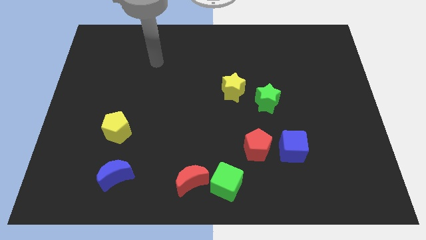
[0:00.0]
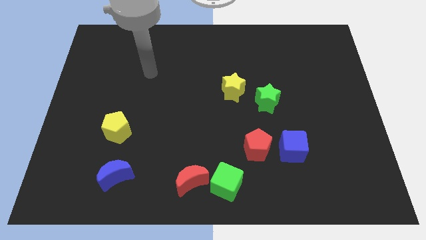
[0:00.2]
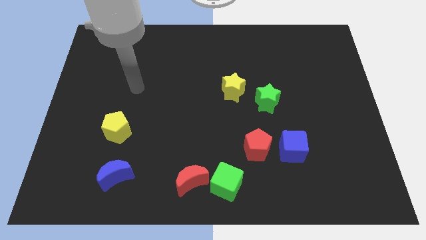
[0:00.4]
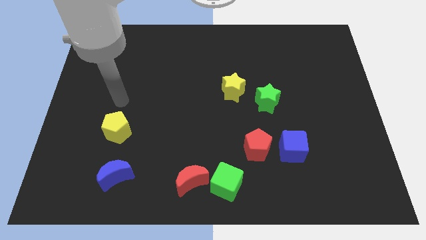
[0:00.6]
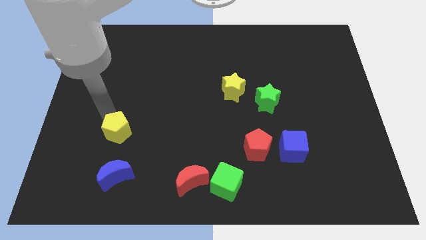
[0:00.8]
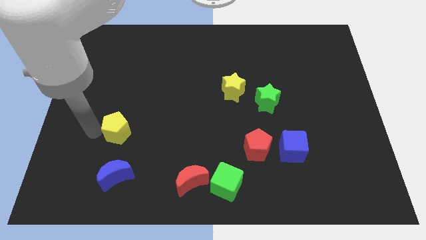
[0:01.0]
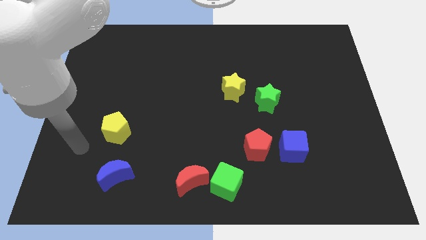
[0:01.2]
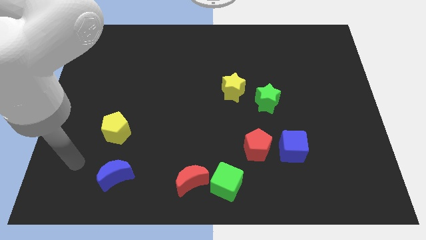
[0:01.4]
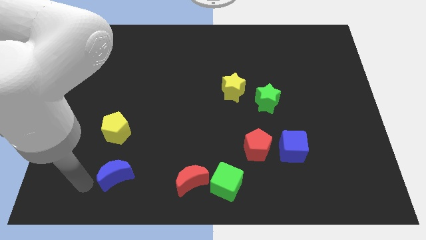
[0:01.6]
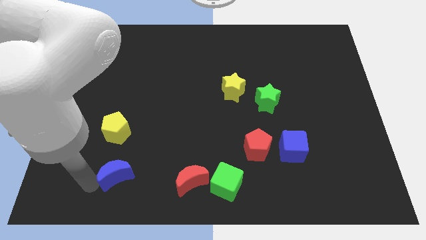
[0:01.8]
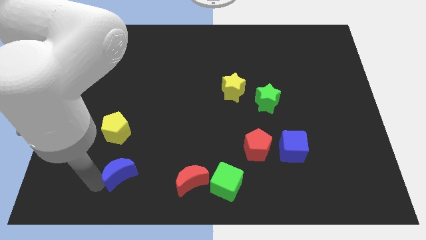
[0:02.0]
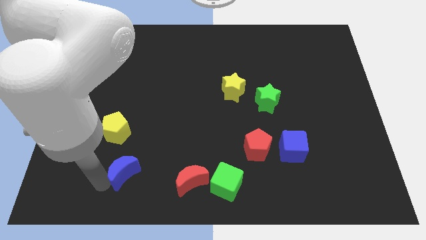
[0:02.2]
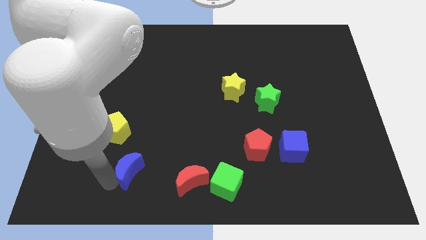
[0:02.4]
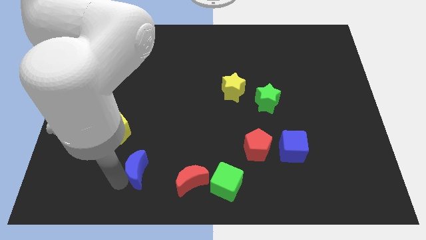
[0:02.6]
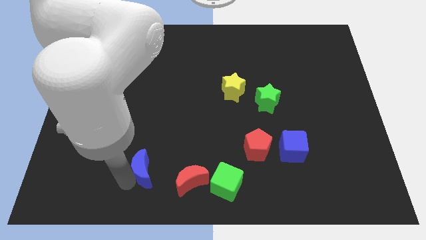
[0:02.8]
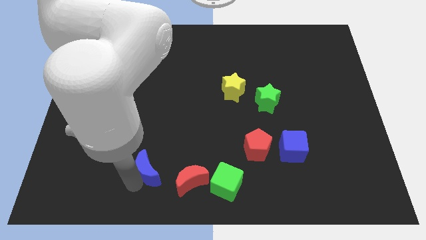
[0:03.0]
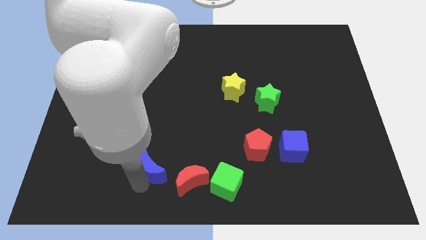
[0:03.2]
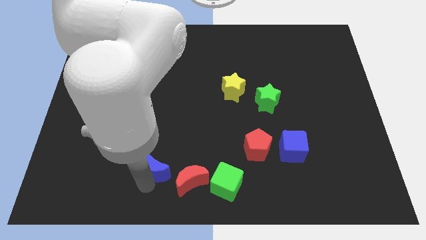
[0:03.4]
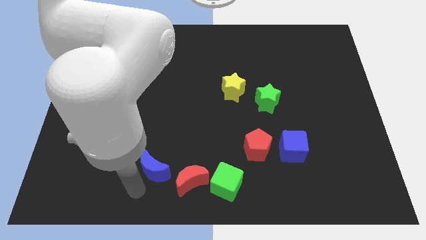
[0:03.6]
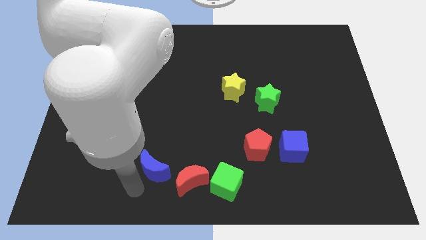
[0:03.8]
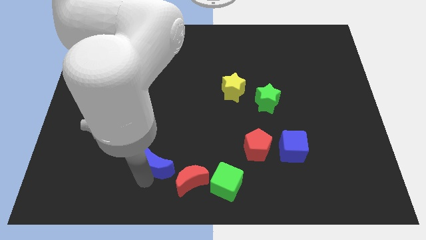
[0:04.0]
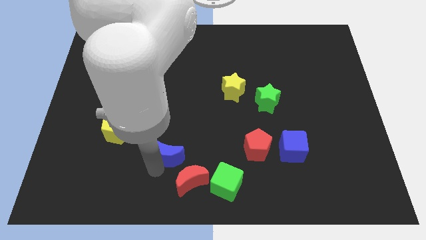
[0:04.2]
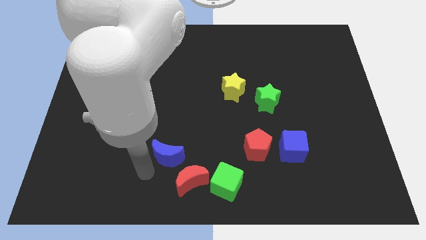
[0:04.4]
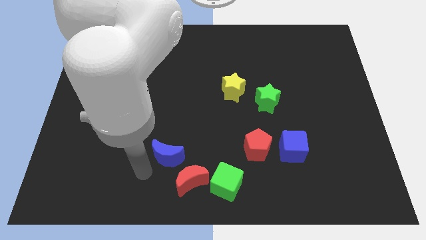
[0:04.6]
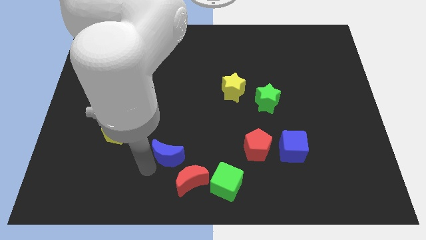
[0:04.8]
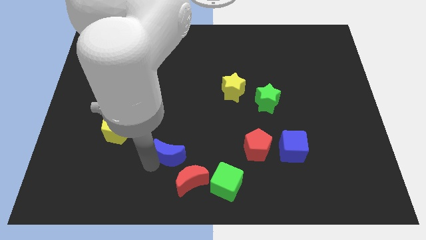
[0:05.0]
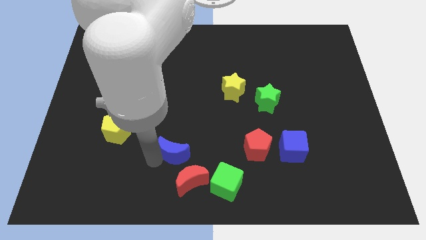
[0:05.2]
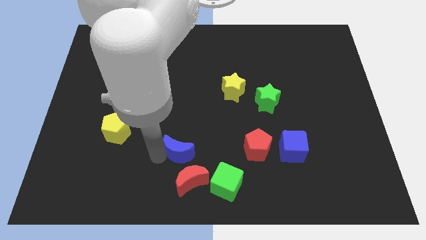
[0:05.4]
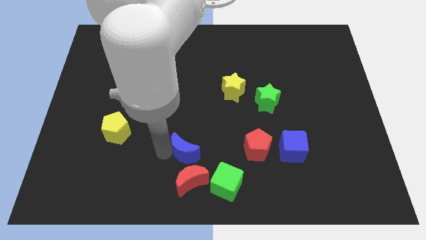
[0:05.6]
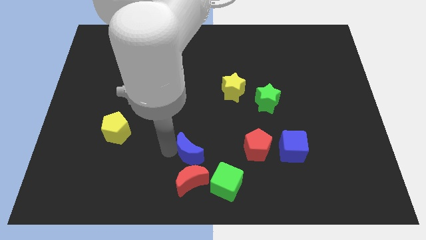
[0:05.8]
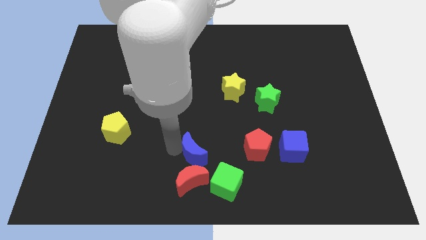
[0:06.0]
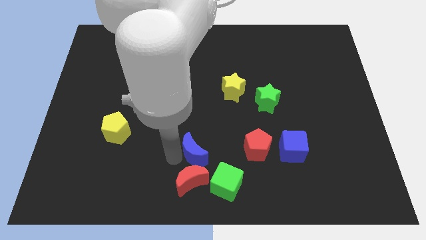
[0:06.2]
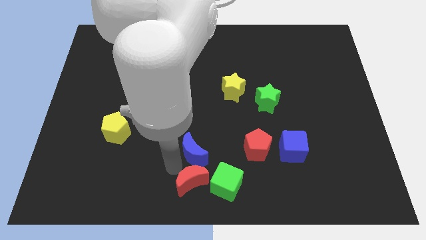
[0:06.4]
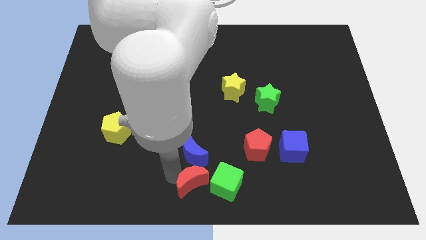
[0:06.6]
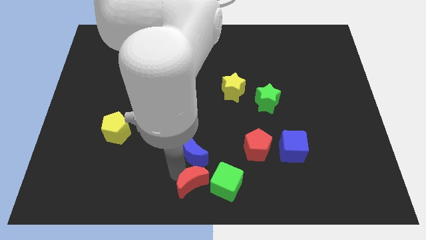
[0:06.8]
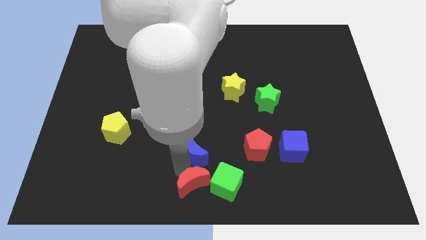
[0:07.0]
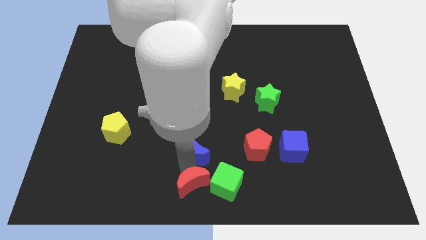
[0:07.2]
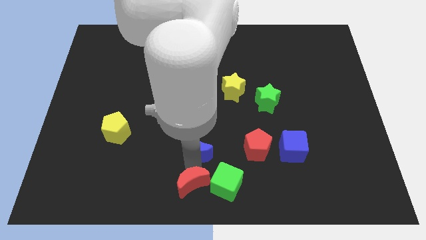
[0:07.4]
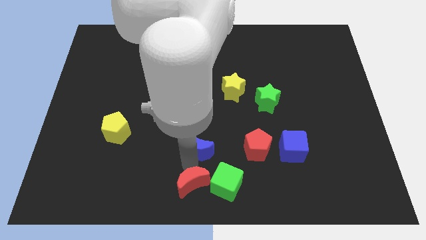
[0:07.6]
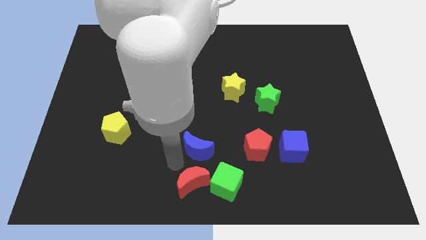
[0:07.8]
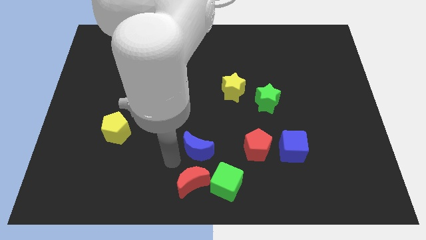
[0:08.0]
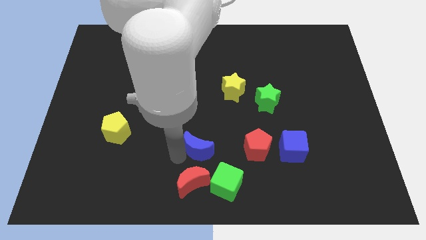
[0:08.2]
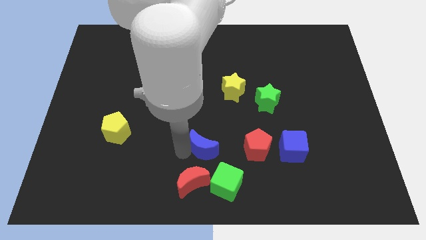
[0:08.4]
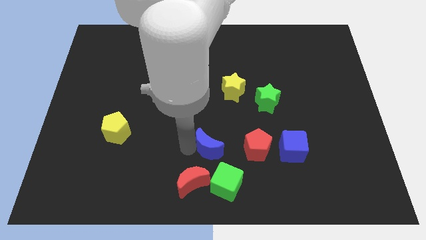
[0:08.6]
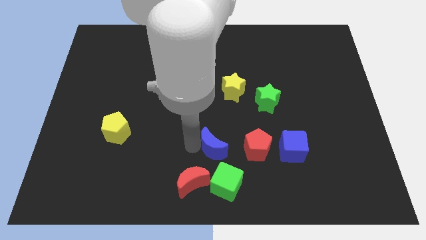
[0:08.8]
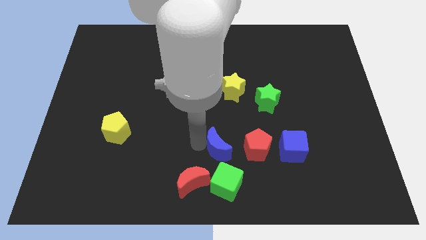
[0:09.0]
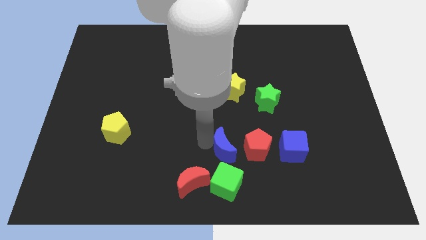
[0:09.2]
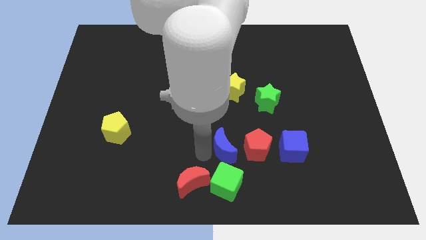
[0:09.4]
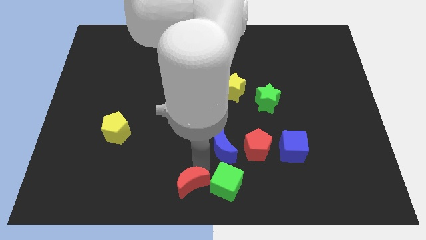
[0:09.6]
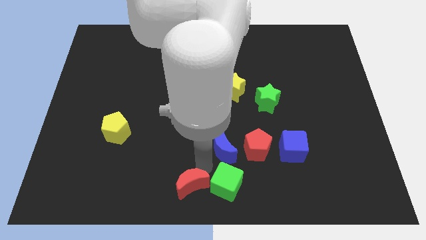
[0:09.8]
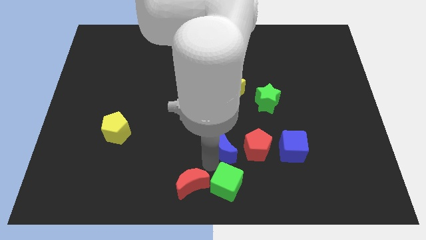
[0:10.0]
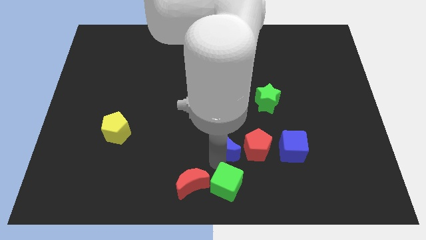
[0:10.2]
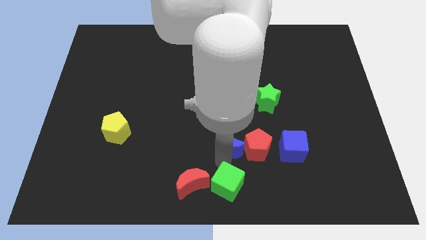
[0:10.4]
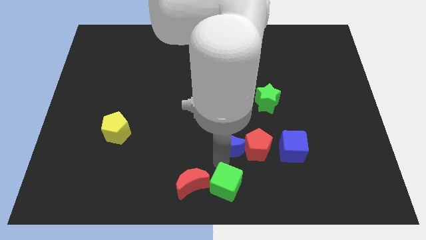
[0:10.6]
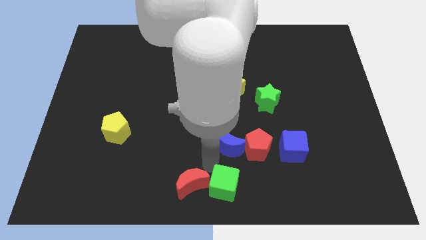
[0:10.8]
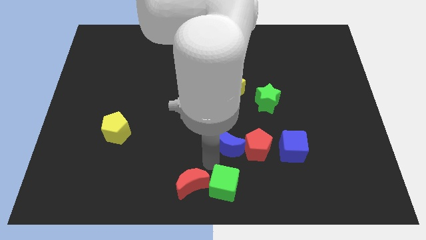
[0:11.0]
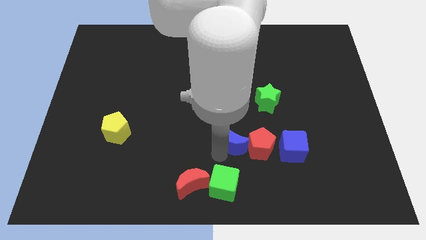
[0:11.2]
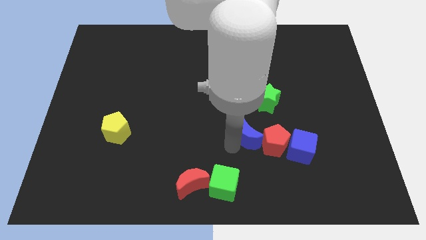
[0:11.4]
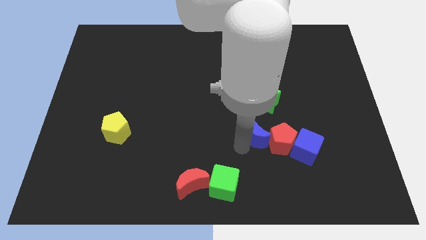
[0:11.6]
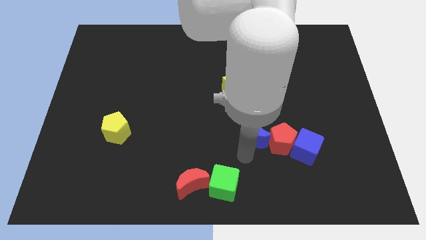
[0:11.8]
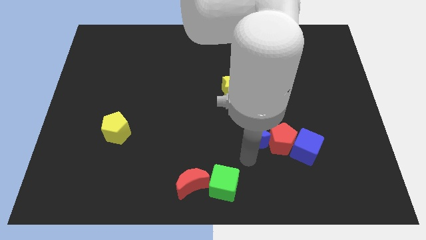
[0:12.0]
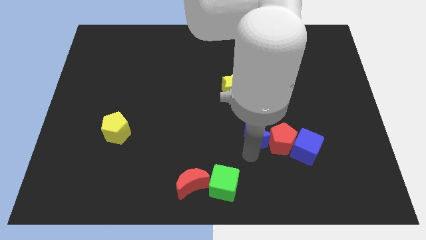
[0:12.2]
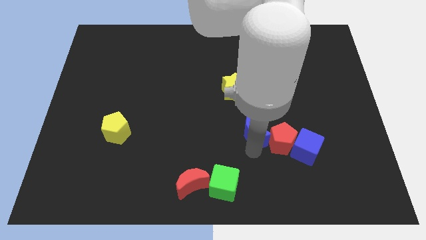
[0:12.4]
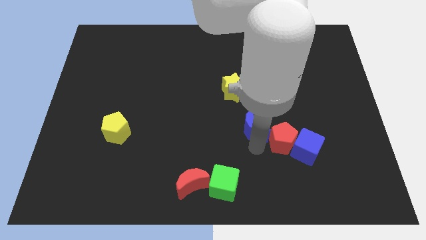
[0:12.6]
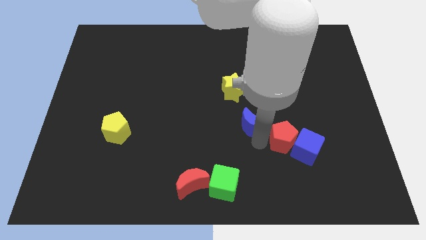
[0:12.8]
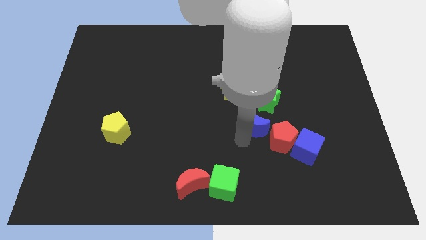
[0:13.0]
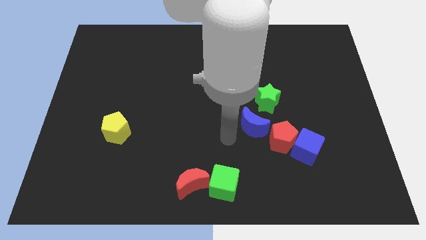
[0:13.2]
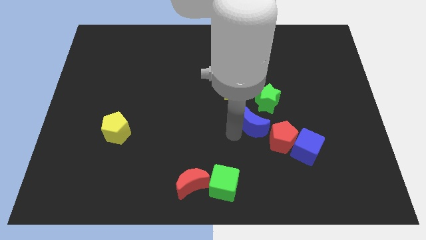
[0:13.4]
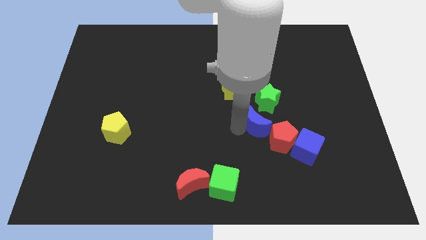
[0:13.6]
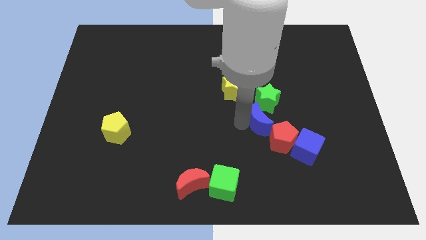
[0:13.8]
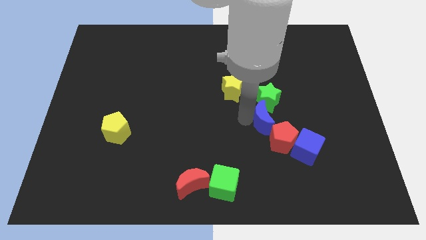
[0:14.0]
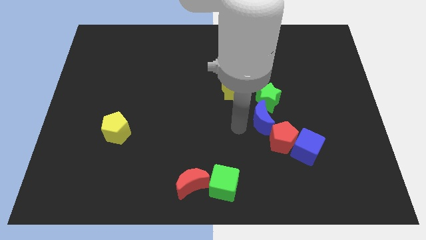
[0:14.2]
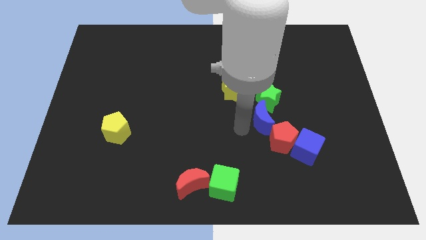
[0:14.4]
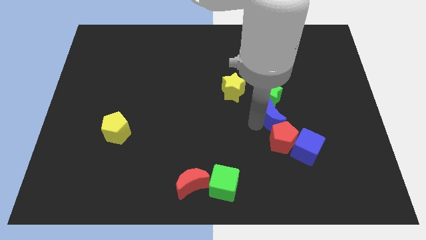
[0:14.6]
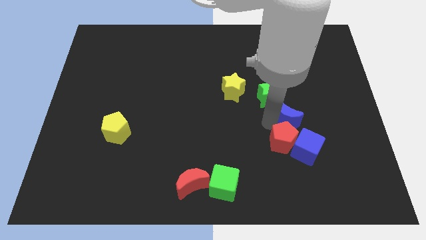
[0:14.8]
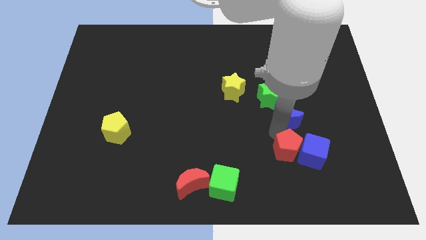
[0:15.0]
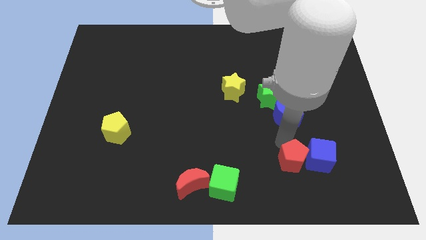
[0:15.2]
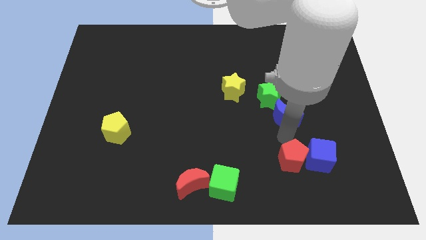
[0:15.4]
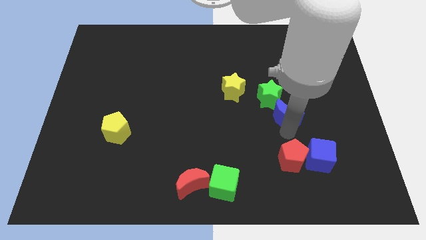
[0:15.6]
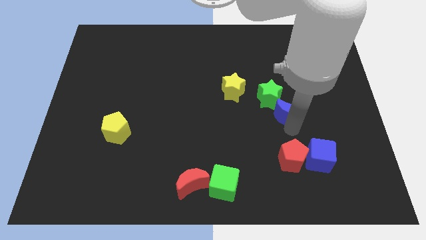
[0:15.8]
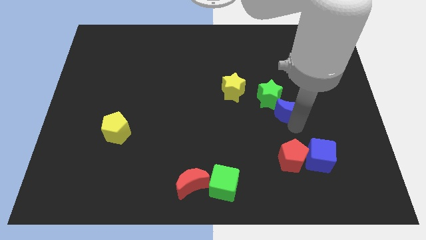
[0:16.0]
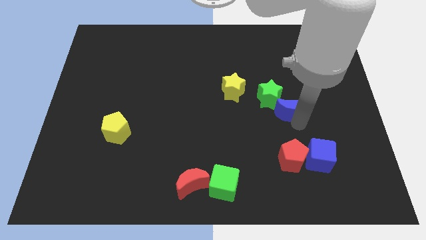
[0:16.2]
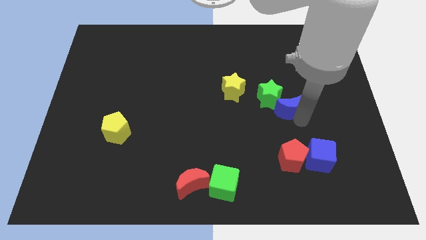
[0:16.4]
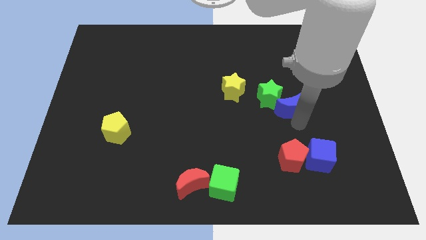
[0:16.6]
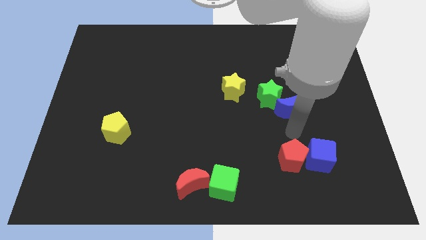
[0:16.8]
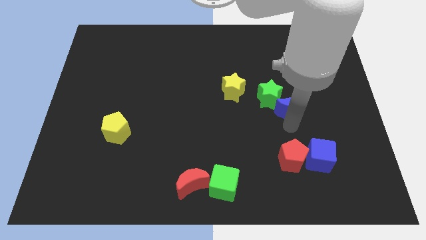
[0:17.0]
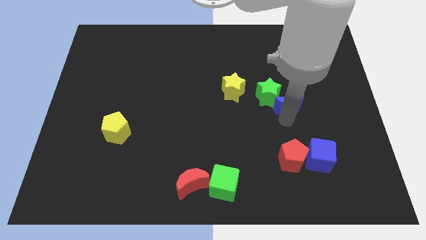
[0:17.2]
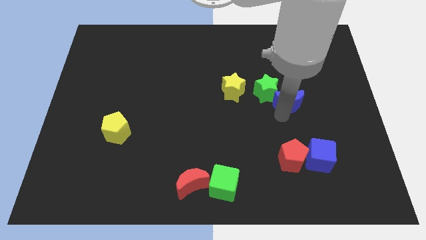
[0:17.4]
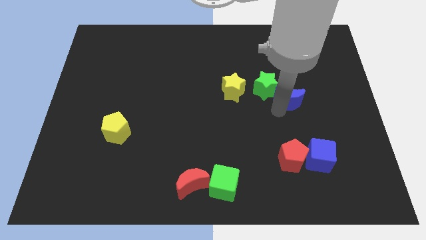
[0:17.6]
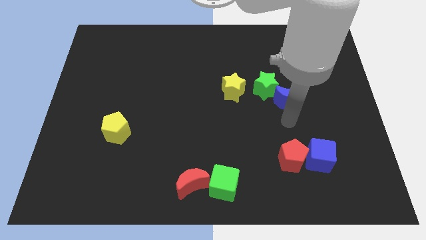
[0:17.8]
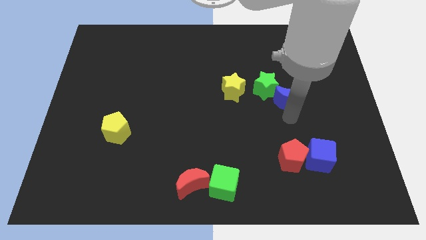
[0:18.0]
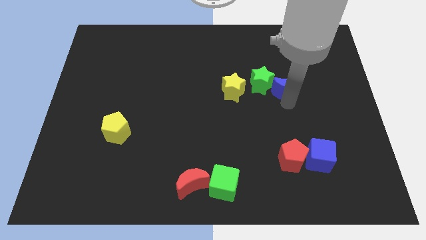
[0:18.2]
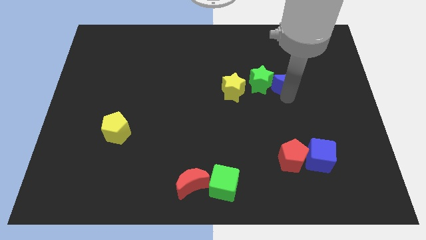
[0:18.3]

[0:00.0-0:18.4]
slide the blue moon diagonally up and to the right of the green star
